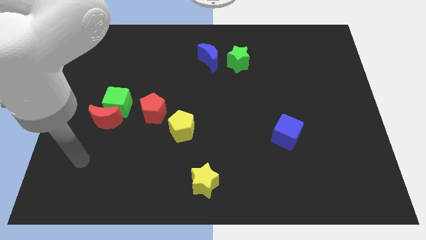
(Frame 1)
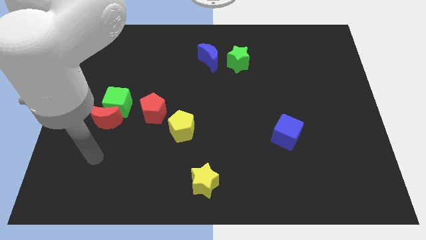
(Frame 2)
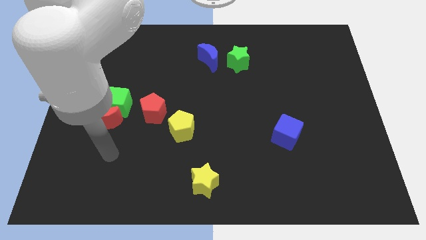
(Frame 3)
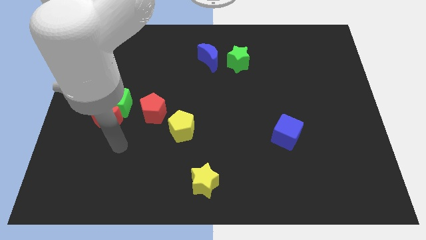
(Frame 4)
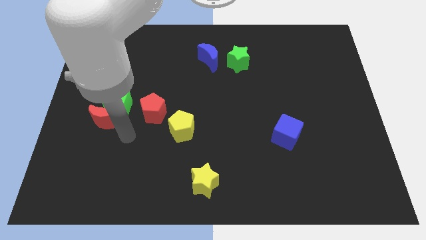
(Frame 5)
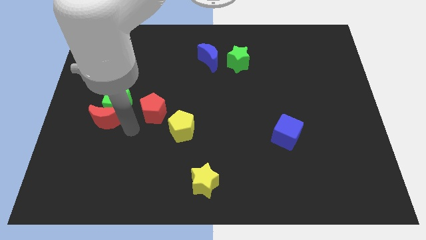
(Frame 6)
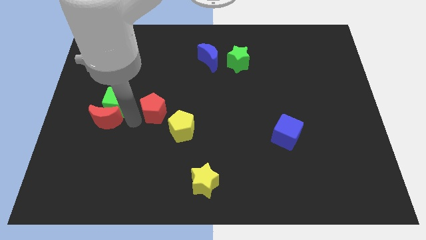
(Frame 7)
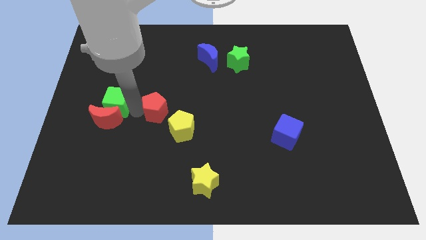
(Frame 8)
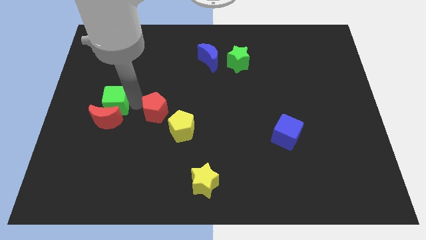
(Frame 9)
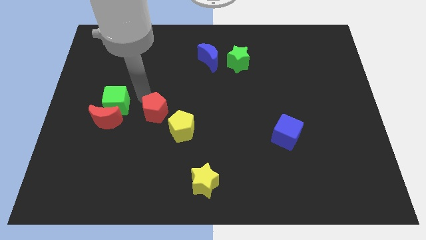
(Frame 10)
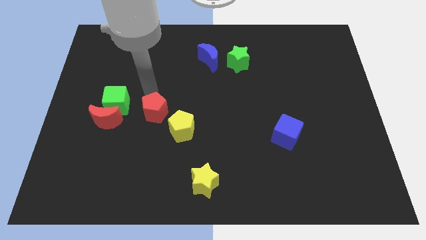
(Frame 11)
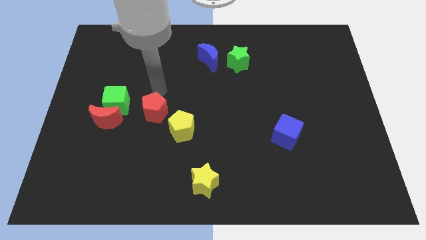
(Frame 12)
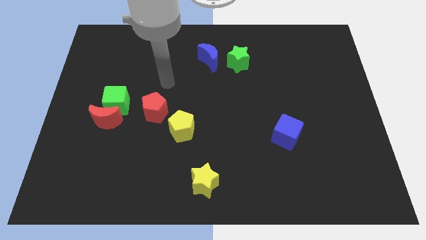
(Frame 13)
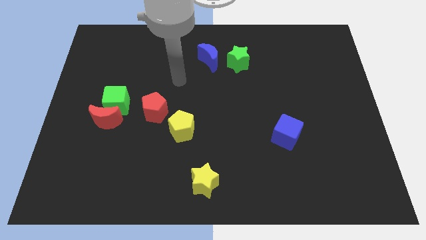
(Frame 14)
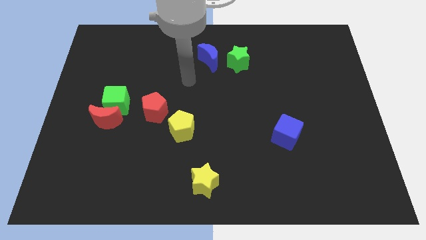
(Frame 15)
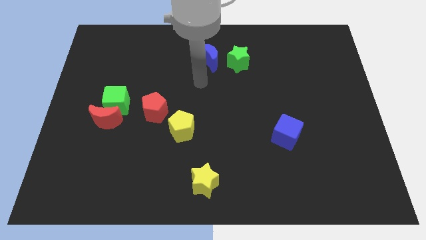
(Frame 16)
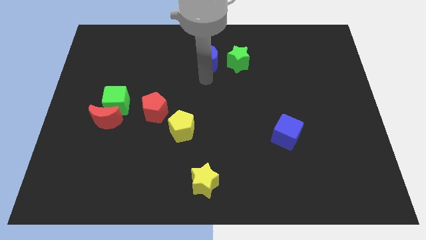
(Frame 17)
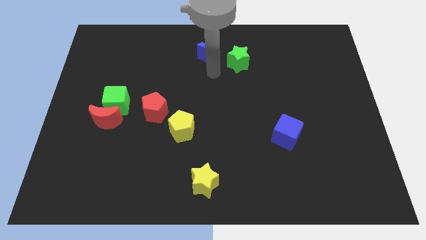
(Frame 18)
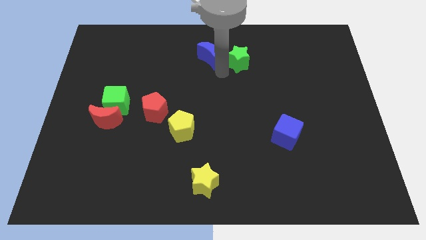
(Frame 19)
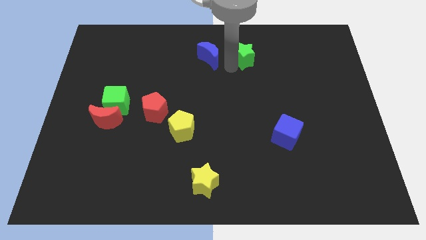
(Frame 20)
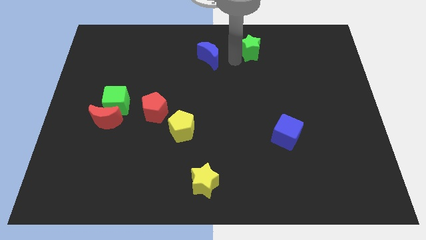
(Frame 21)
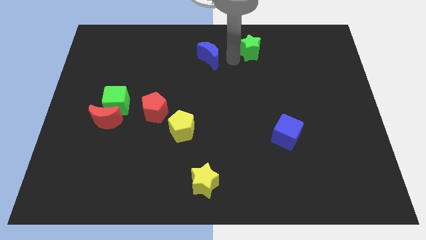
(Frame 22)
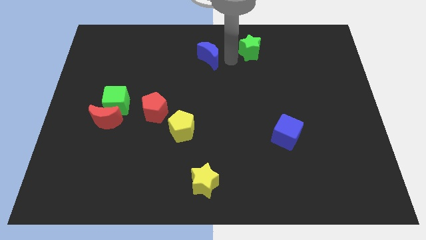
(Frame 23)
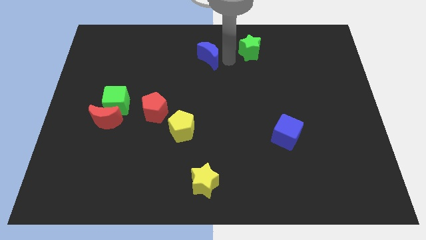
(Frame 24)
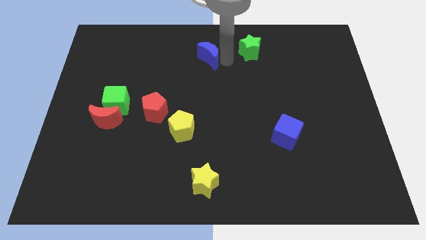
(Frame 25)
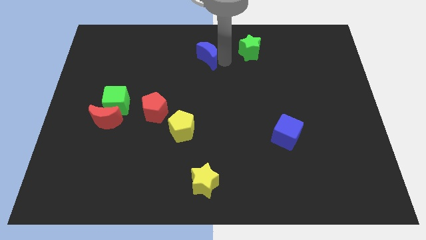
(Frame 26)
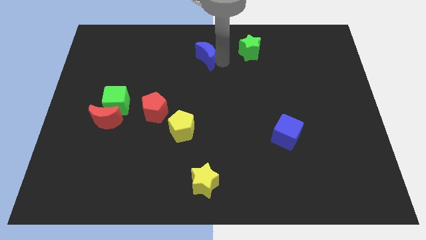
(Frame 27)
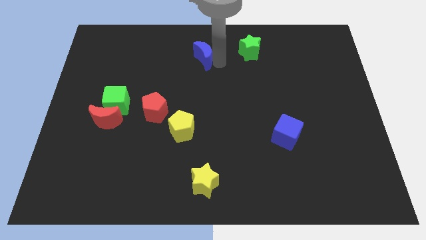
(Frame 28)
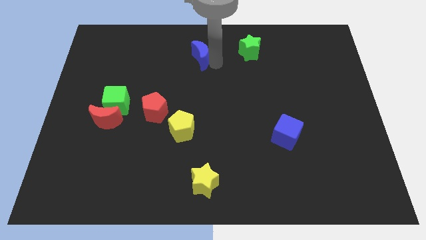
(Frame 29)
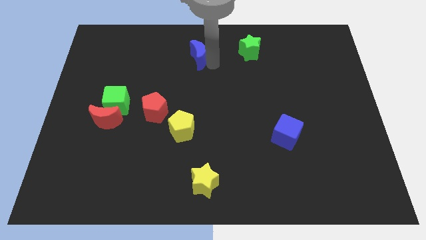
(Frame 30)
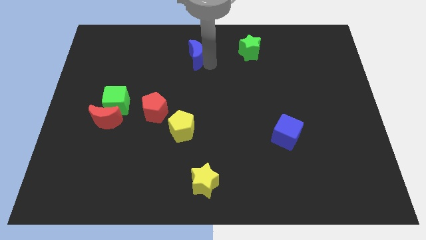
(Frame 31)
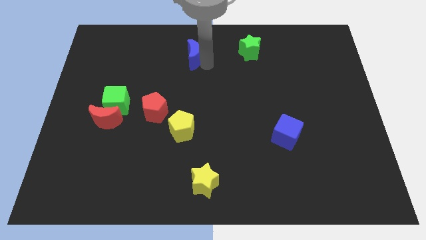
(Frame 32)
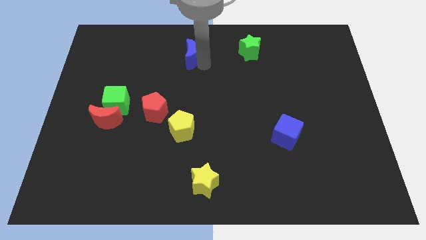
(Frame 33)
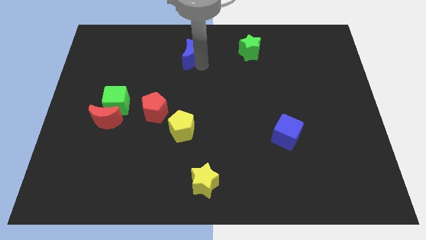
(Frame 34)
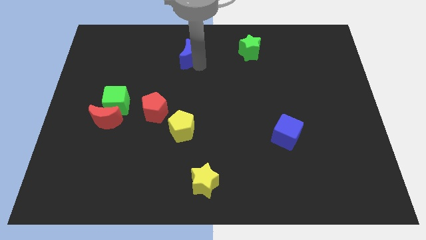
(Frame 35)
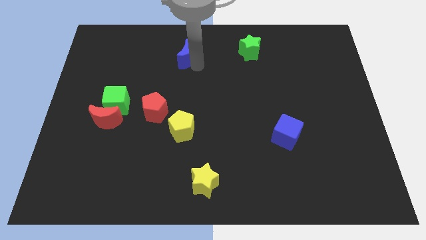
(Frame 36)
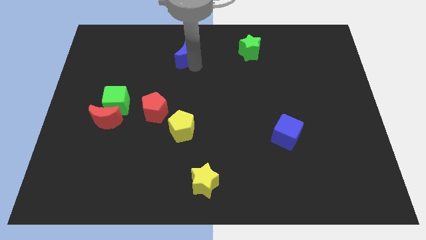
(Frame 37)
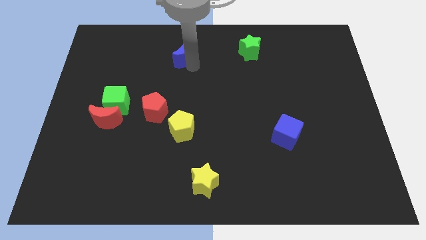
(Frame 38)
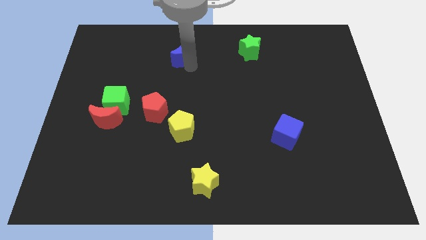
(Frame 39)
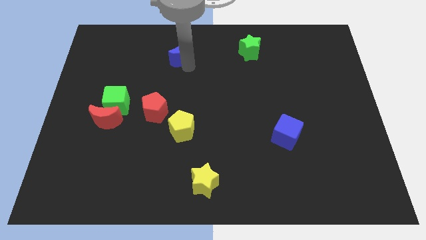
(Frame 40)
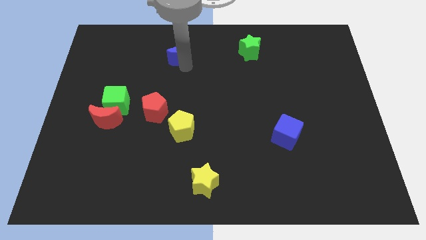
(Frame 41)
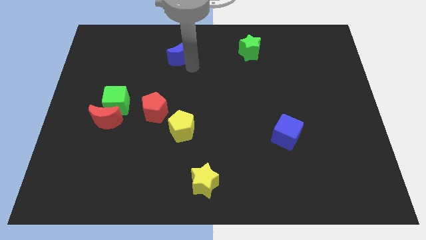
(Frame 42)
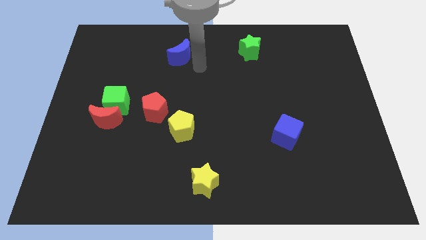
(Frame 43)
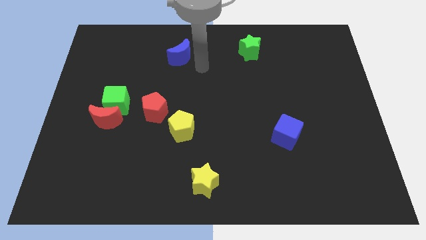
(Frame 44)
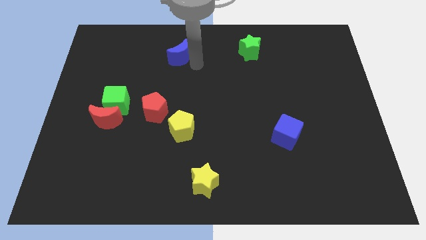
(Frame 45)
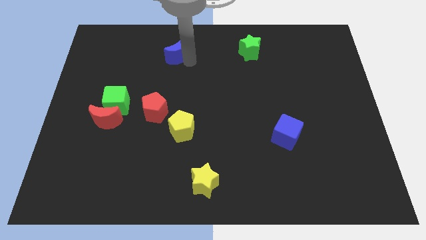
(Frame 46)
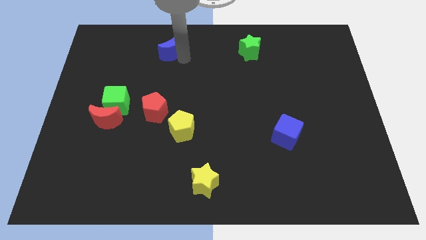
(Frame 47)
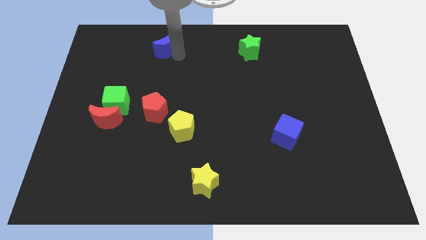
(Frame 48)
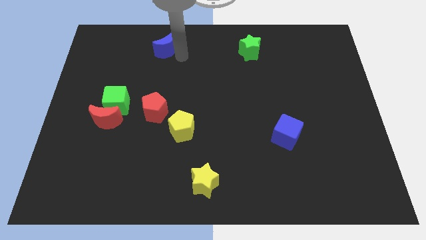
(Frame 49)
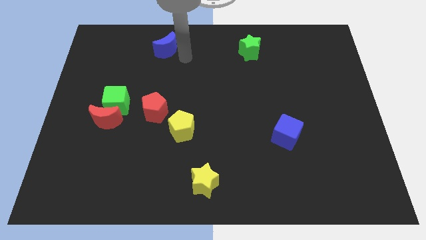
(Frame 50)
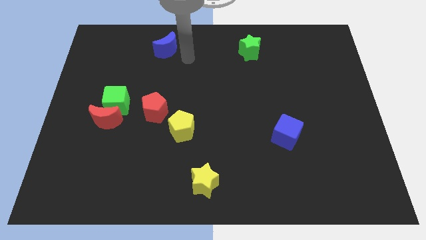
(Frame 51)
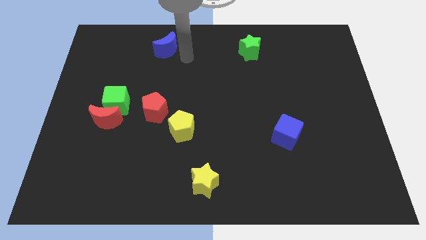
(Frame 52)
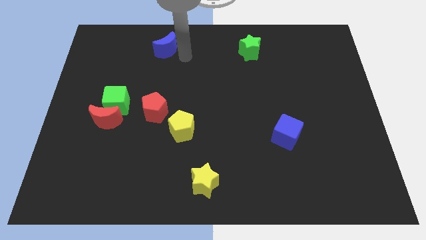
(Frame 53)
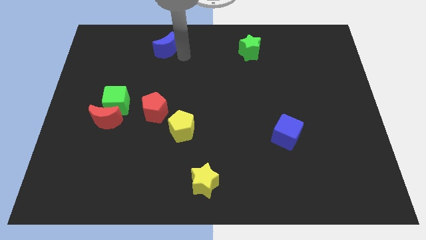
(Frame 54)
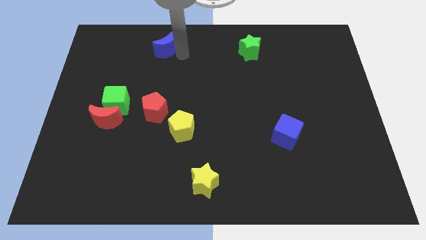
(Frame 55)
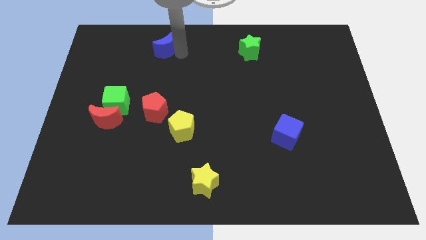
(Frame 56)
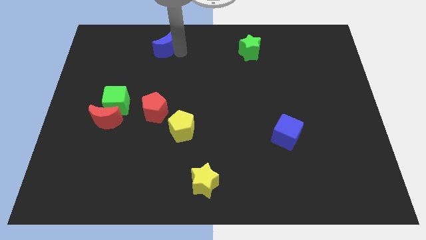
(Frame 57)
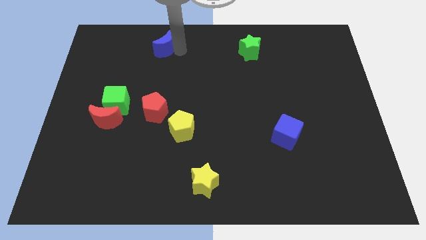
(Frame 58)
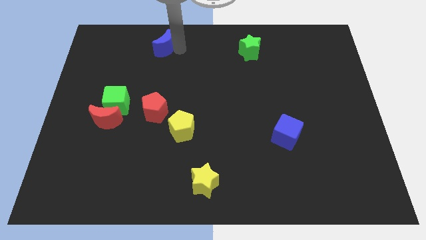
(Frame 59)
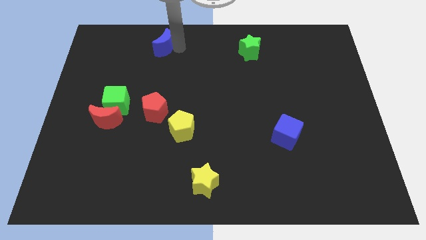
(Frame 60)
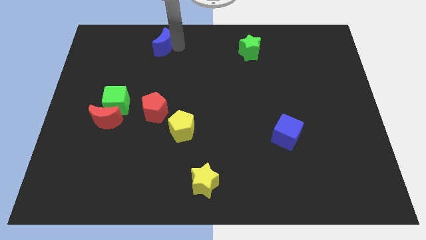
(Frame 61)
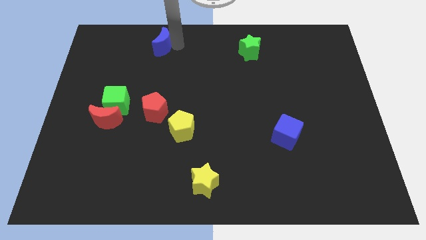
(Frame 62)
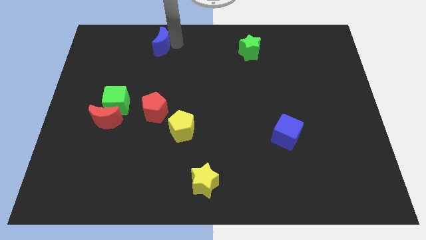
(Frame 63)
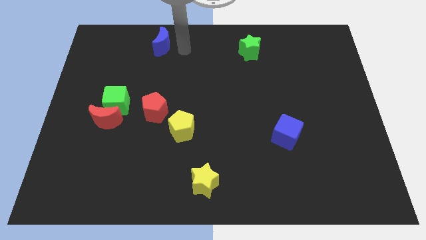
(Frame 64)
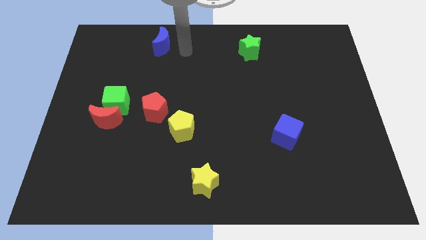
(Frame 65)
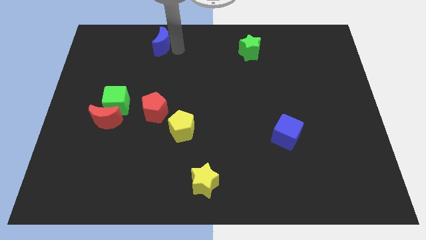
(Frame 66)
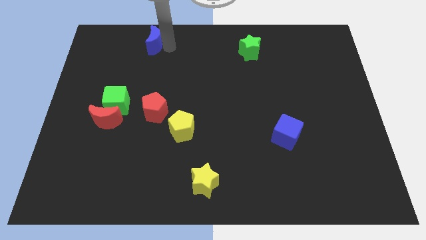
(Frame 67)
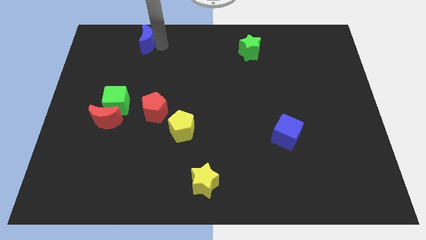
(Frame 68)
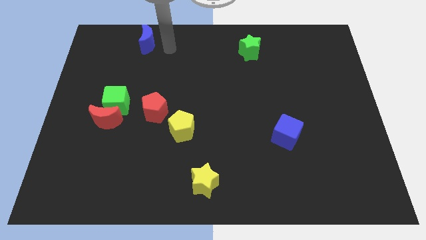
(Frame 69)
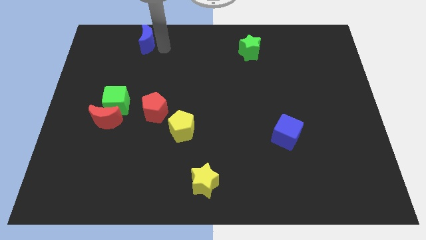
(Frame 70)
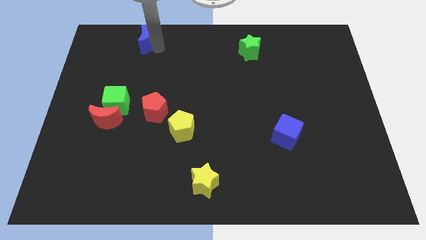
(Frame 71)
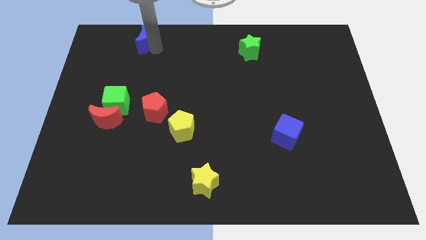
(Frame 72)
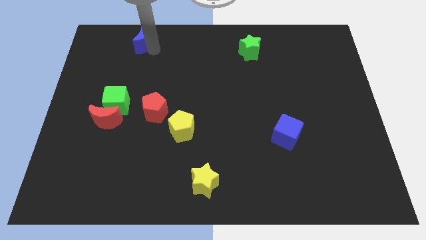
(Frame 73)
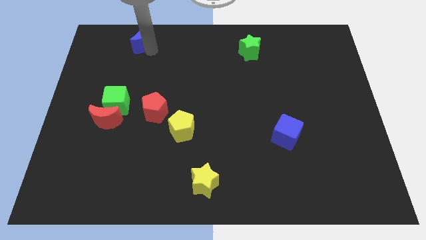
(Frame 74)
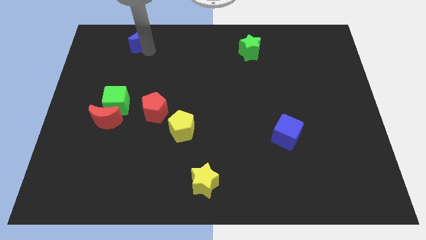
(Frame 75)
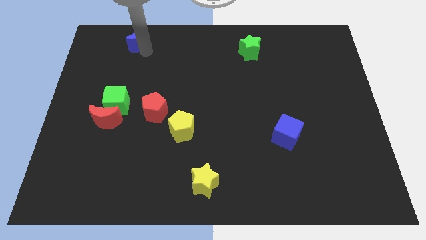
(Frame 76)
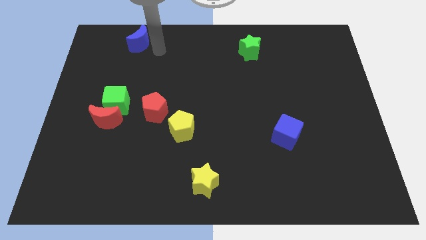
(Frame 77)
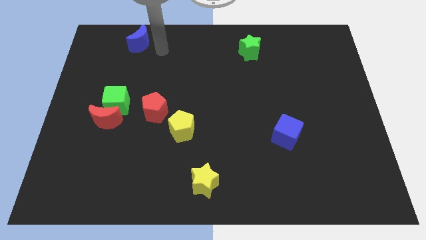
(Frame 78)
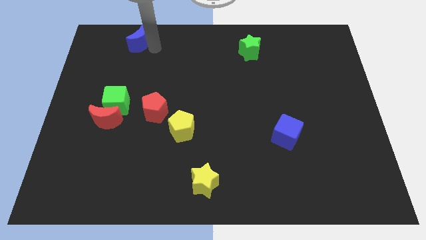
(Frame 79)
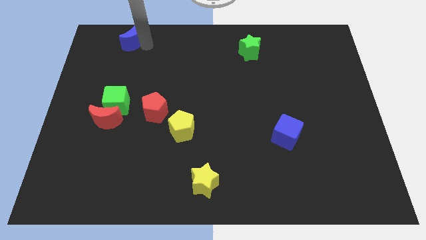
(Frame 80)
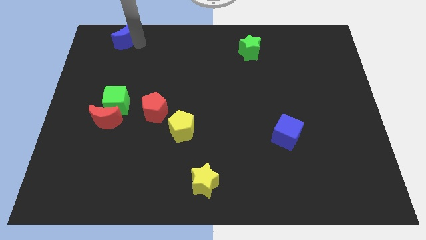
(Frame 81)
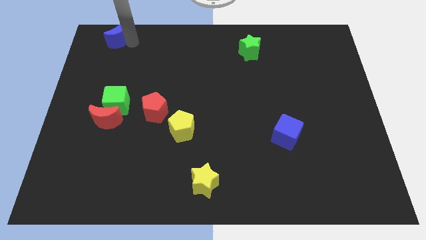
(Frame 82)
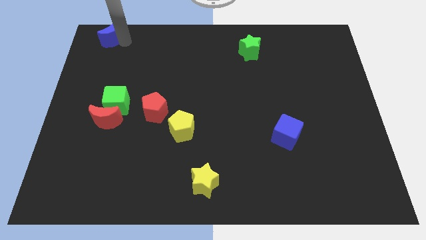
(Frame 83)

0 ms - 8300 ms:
push the blue moon to the top left of the board
